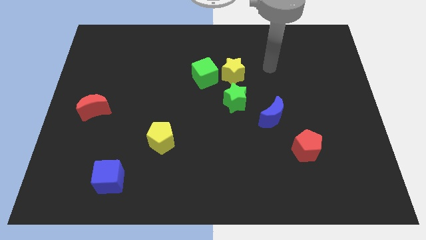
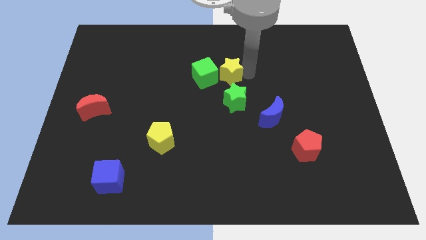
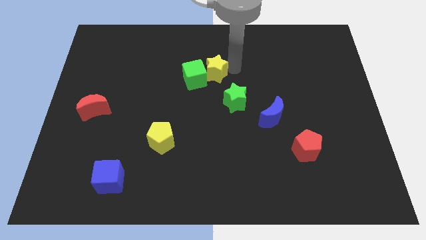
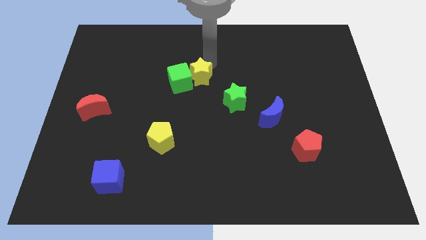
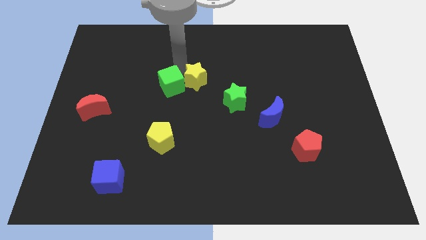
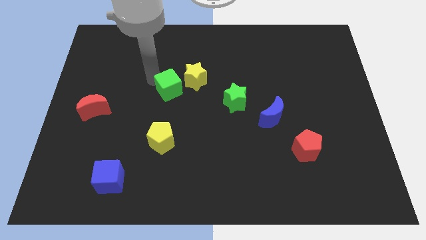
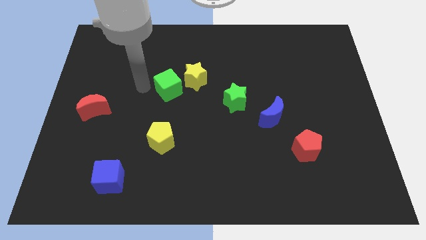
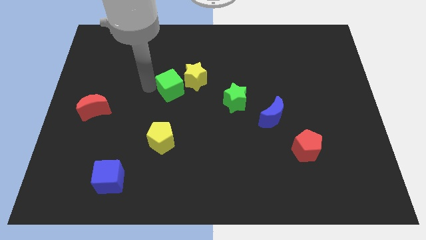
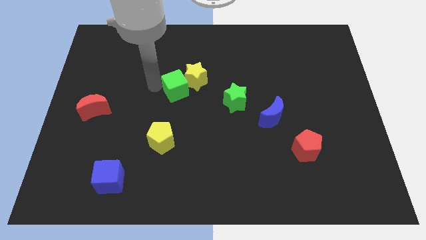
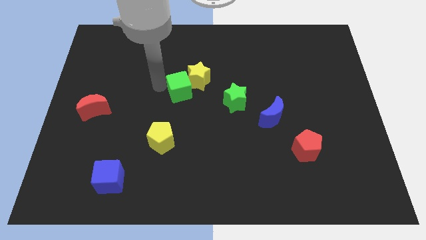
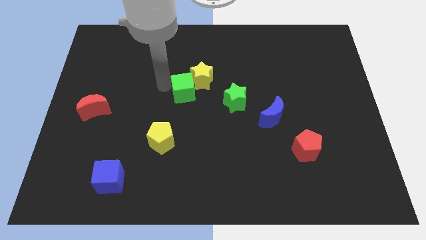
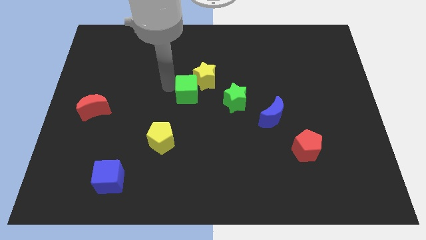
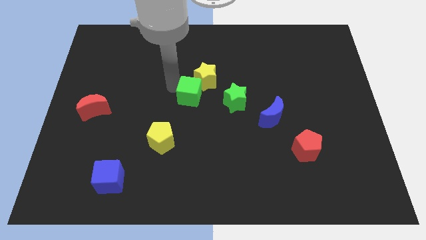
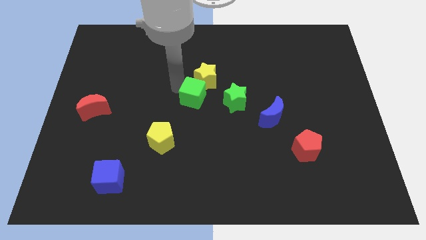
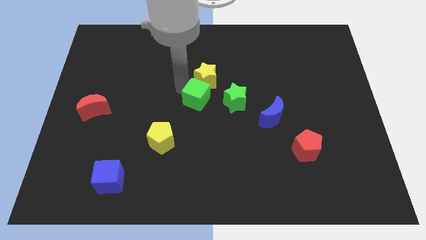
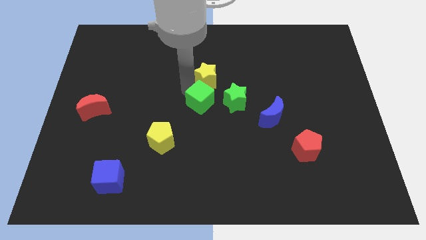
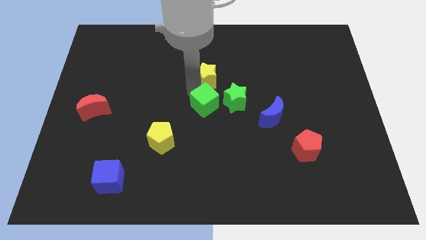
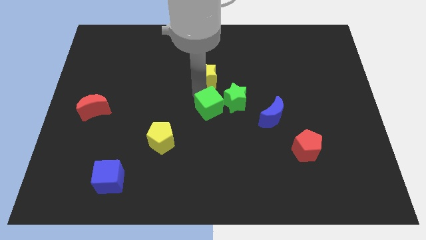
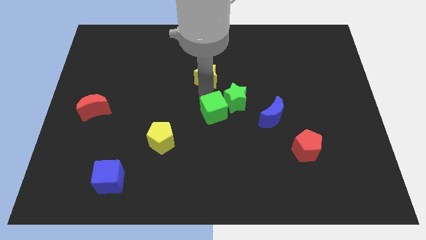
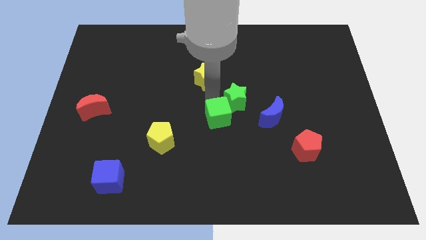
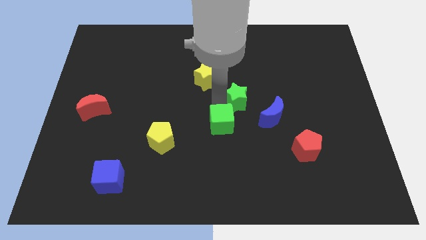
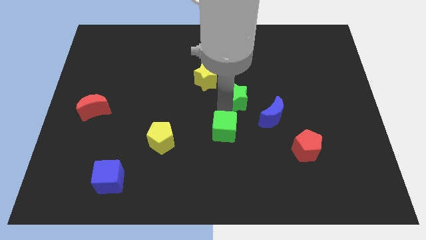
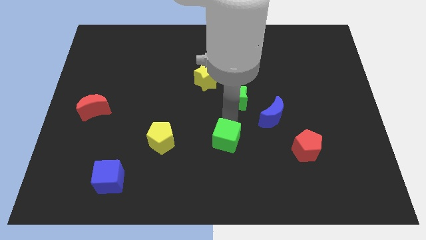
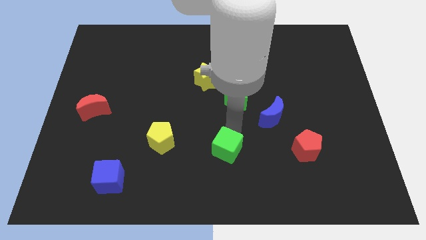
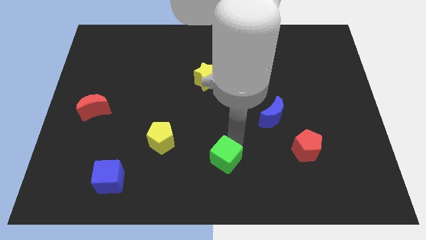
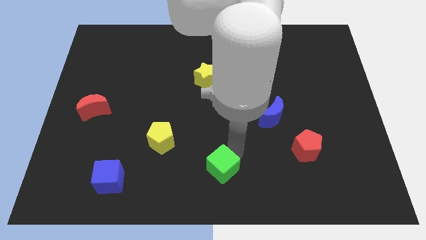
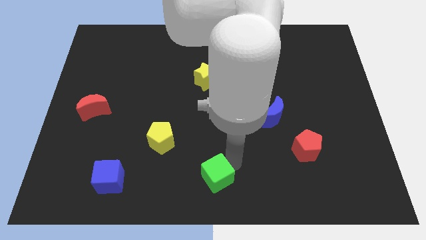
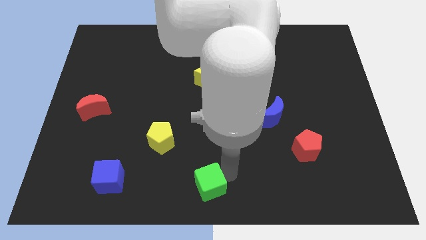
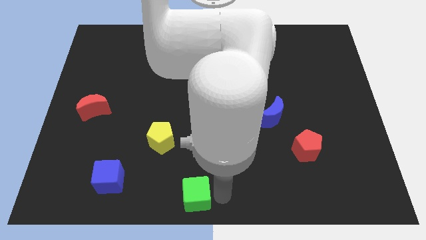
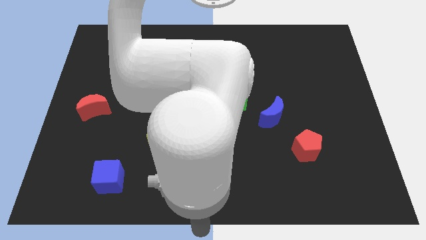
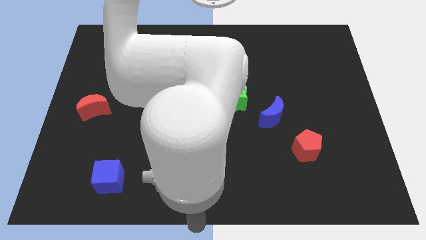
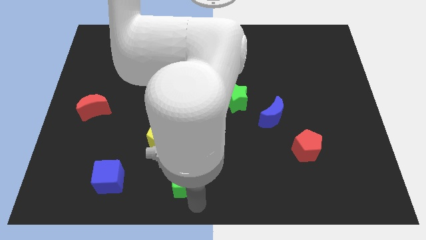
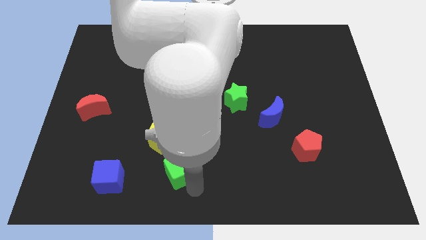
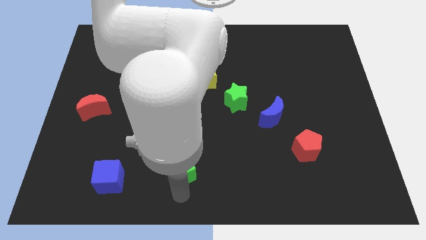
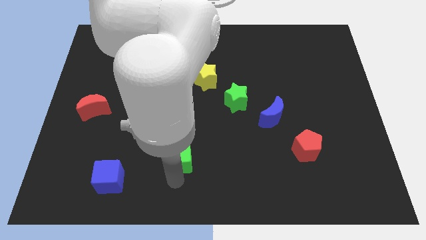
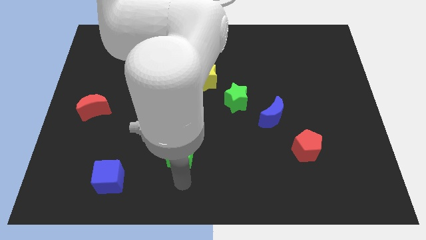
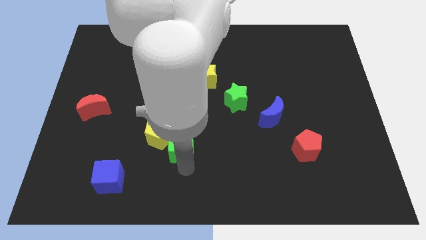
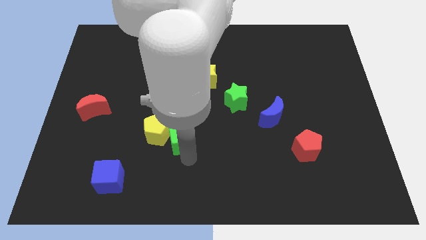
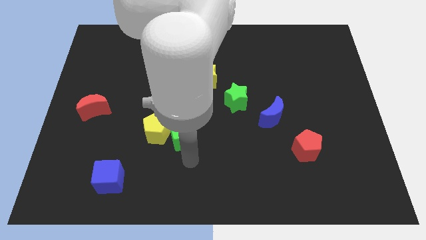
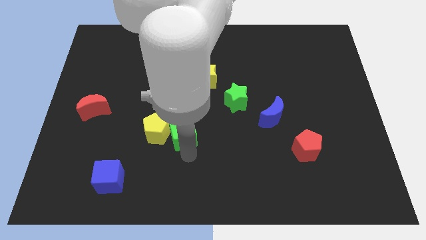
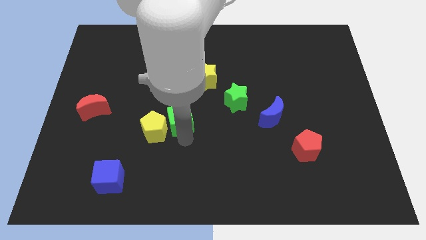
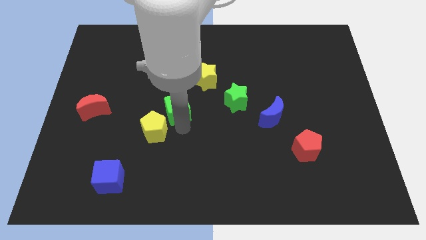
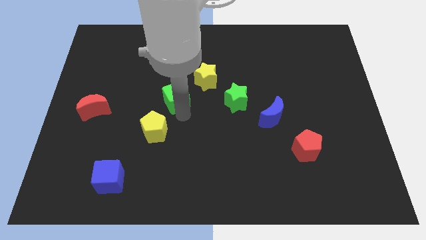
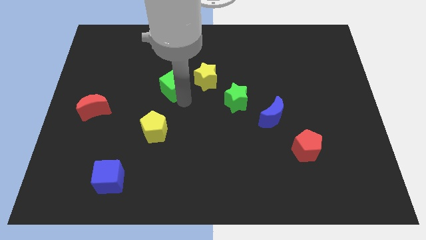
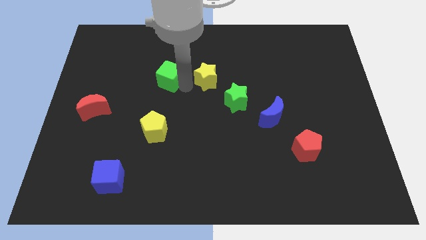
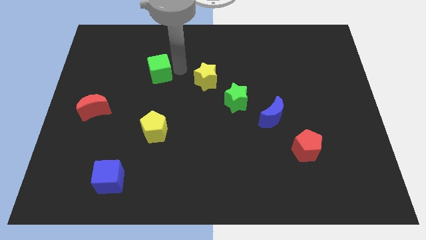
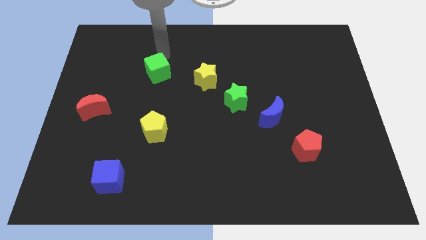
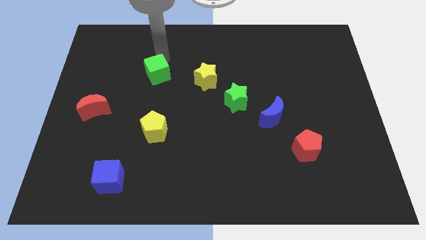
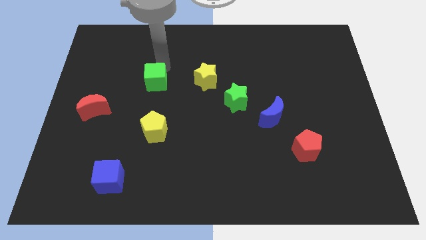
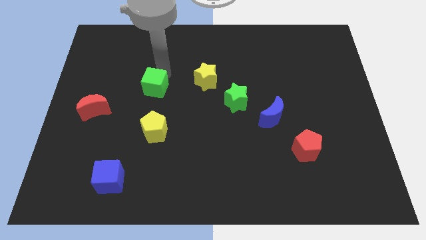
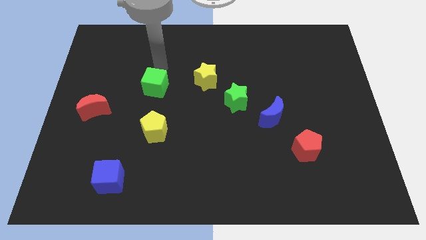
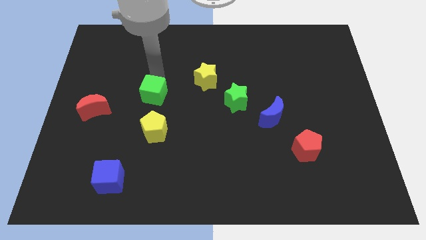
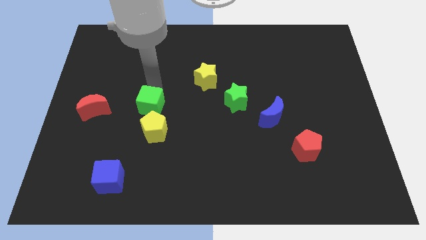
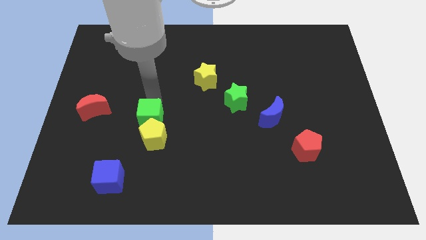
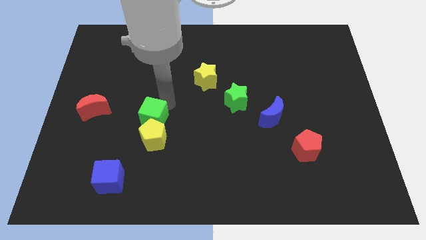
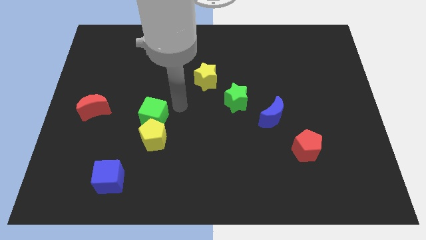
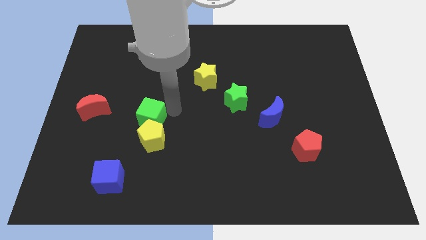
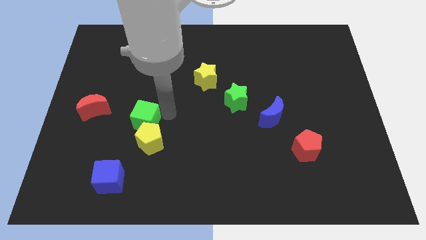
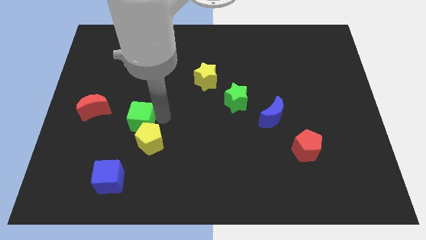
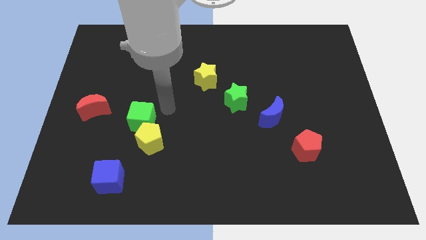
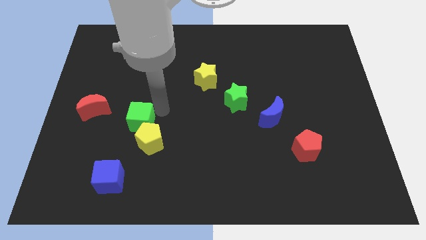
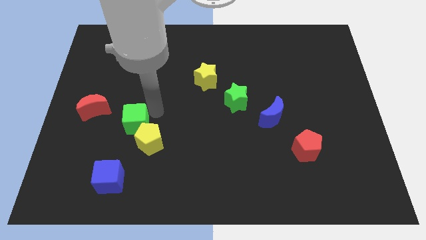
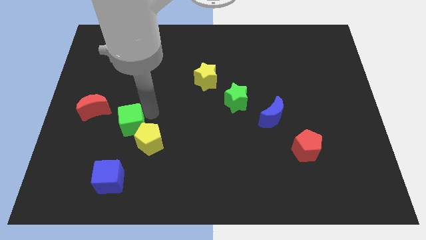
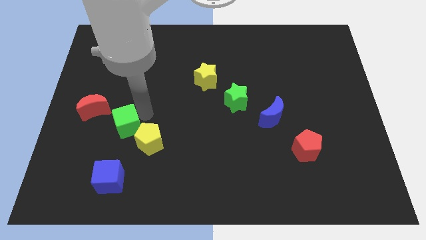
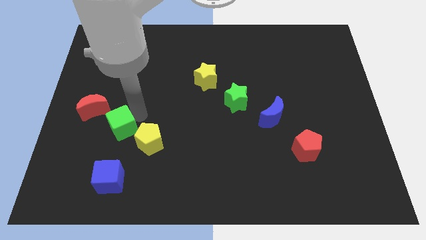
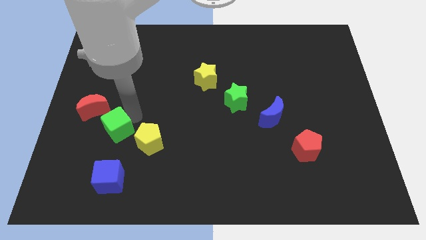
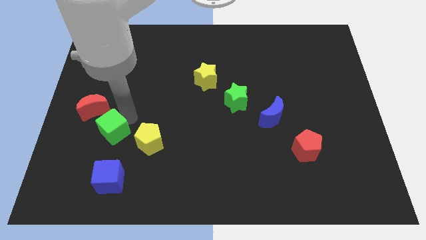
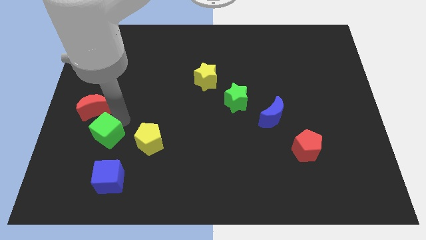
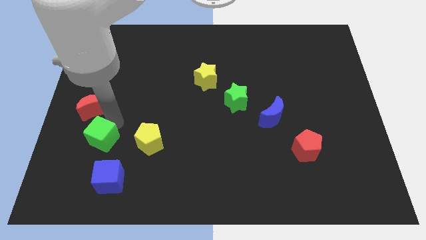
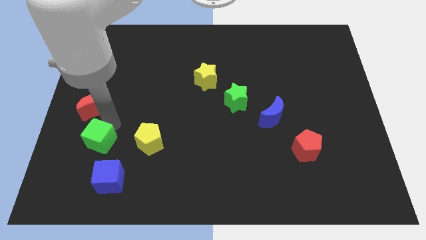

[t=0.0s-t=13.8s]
move the green cube diagonally up and to the left of the blue cube
